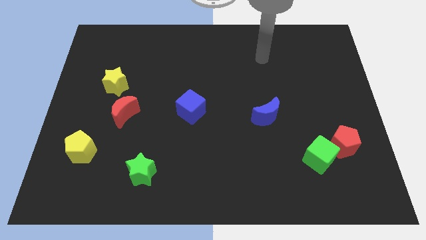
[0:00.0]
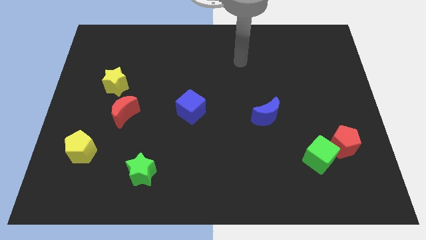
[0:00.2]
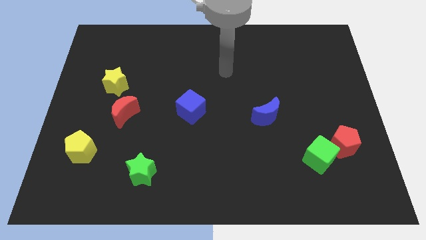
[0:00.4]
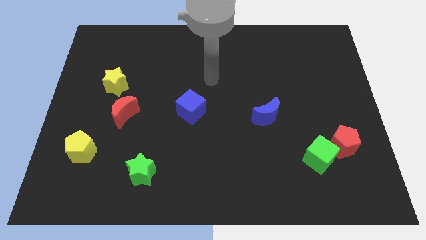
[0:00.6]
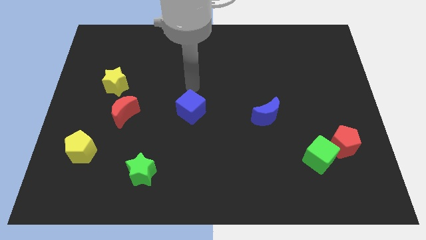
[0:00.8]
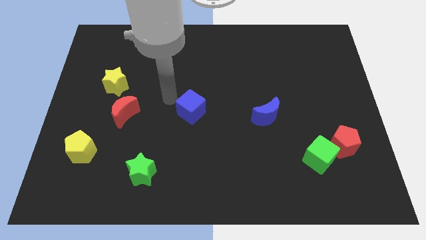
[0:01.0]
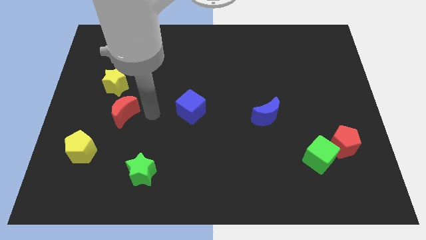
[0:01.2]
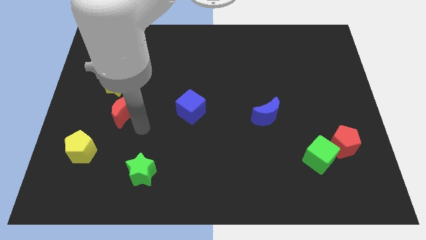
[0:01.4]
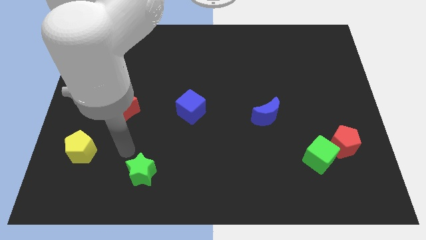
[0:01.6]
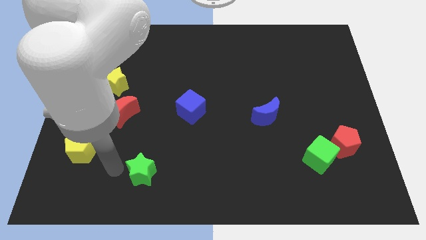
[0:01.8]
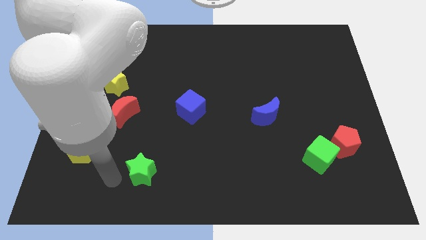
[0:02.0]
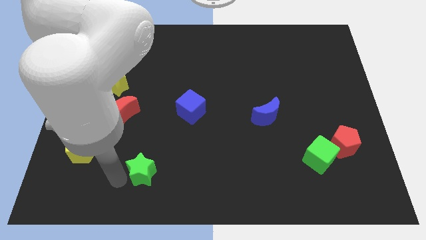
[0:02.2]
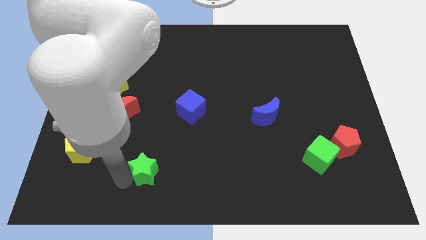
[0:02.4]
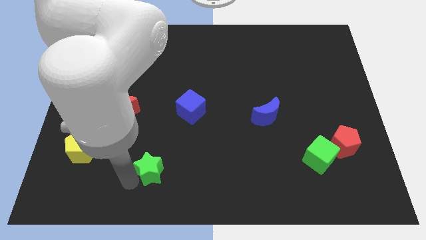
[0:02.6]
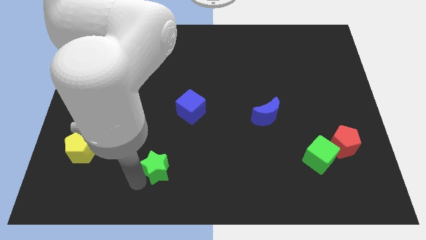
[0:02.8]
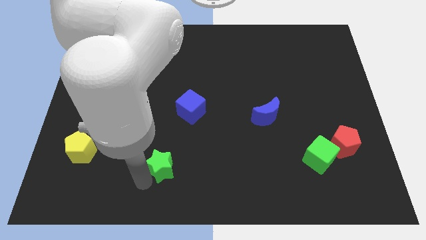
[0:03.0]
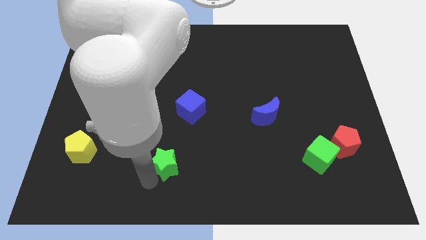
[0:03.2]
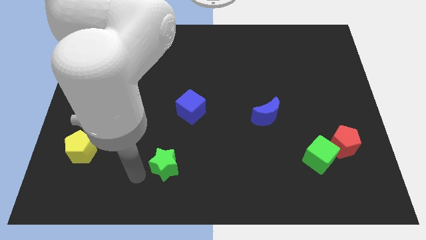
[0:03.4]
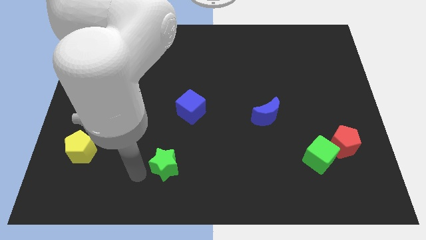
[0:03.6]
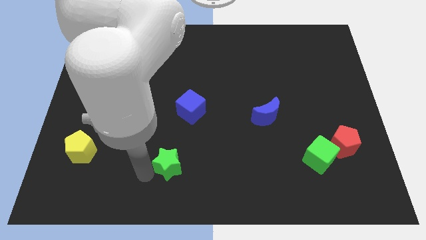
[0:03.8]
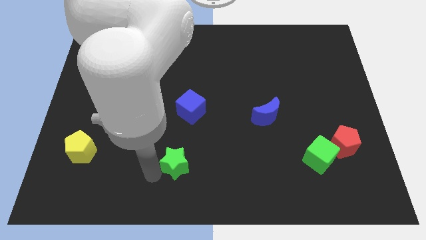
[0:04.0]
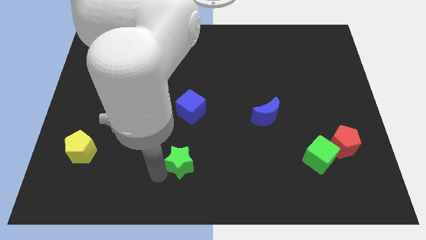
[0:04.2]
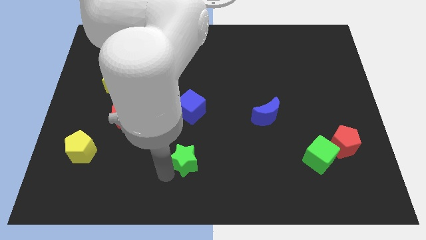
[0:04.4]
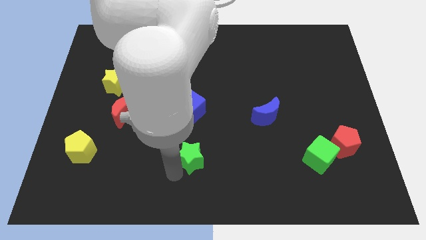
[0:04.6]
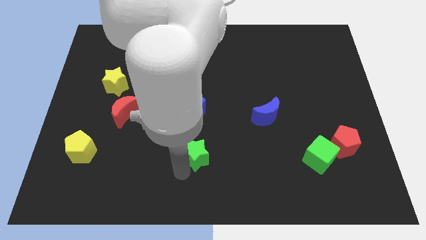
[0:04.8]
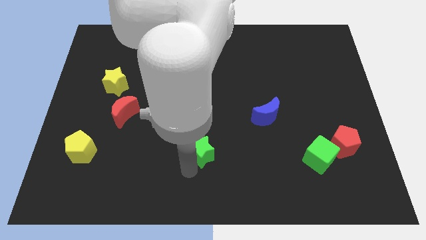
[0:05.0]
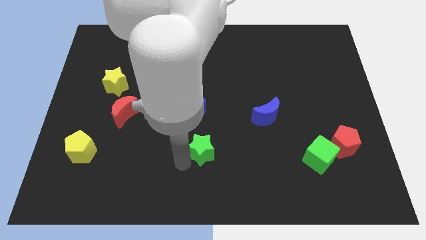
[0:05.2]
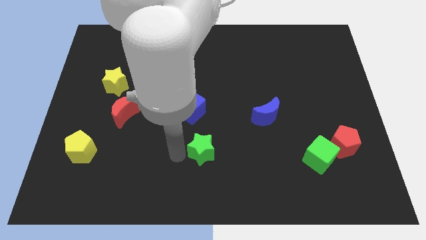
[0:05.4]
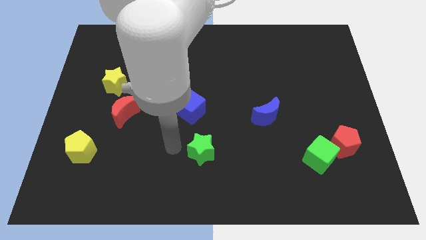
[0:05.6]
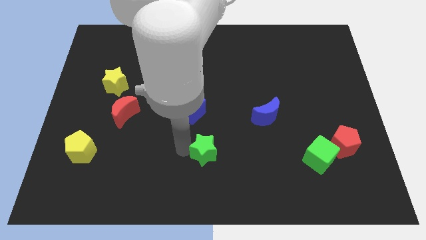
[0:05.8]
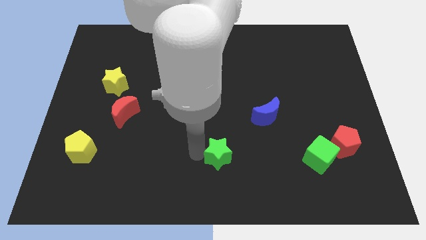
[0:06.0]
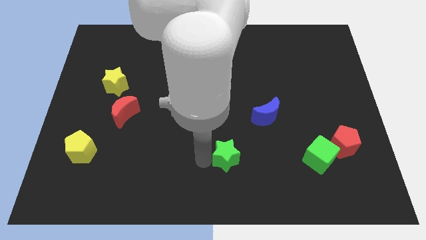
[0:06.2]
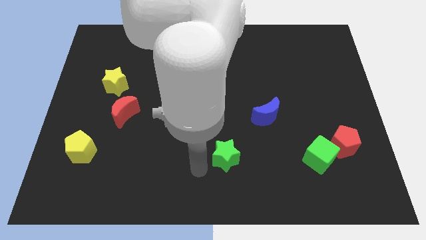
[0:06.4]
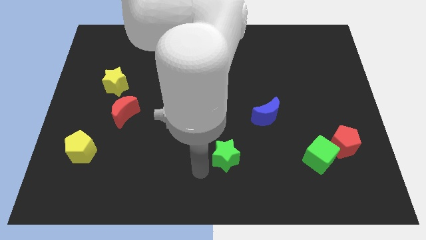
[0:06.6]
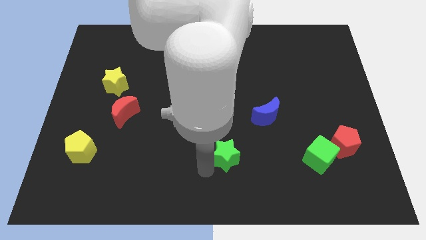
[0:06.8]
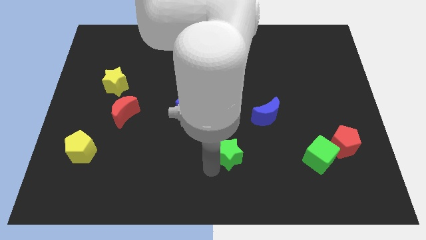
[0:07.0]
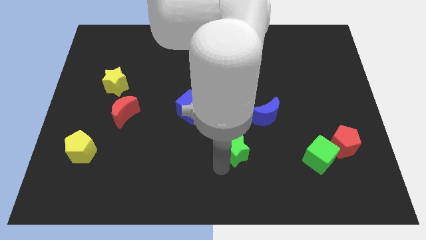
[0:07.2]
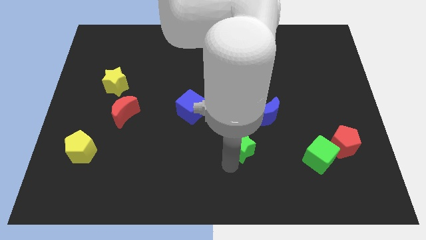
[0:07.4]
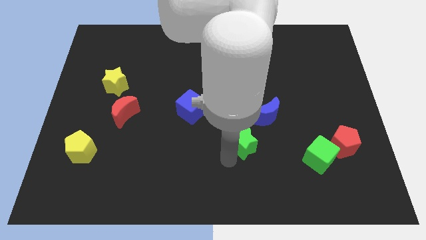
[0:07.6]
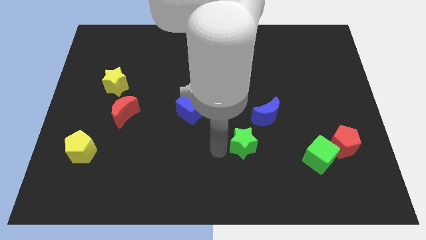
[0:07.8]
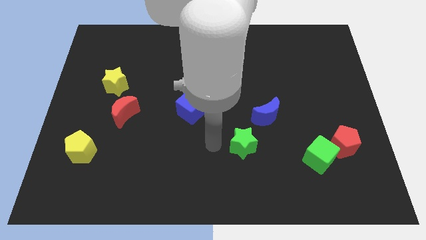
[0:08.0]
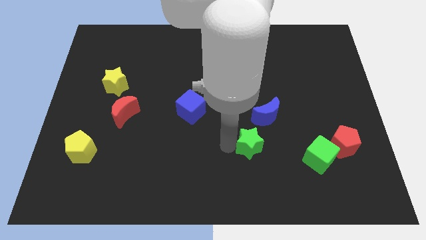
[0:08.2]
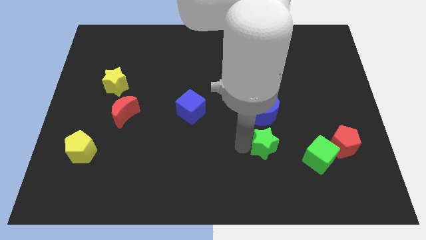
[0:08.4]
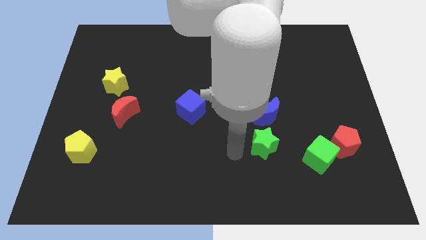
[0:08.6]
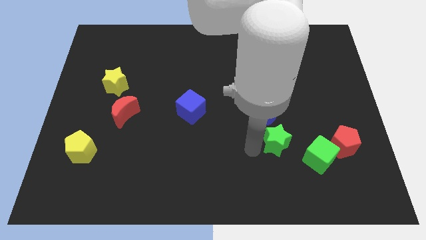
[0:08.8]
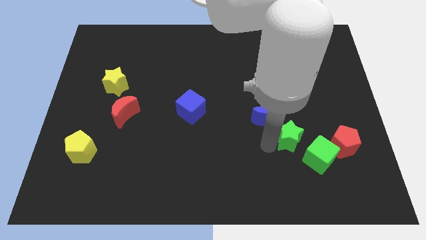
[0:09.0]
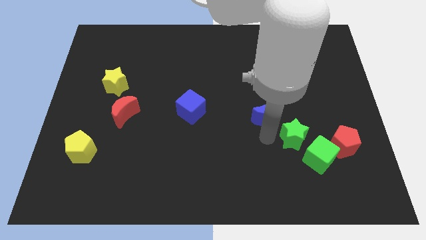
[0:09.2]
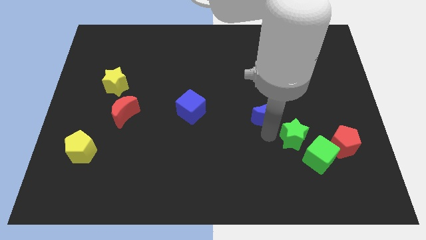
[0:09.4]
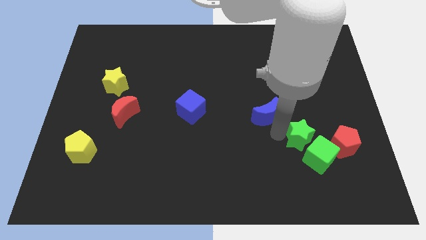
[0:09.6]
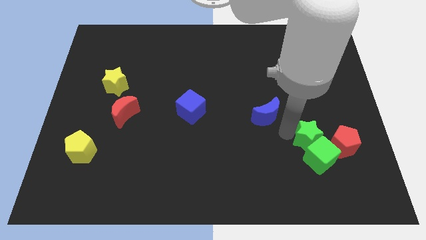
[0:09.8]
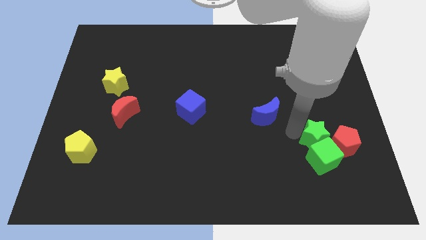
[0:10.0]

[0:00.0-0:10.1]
slide the green star to the red pentagon

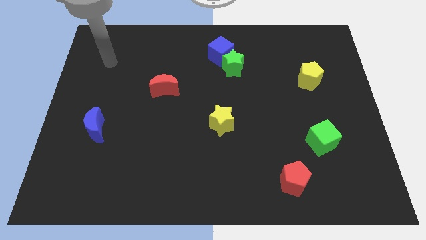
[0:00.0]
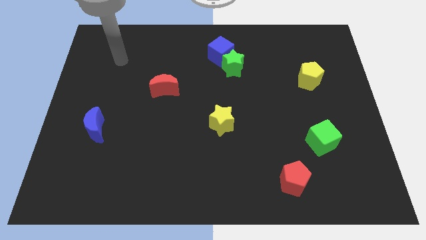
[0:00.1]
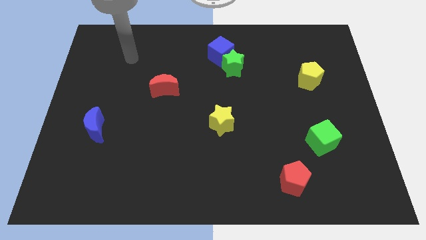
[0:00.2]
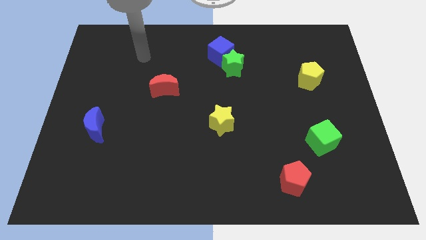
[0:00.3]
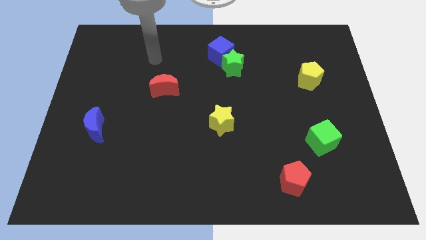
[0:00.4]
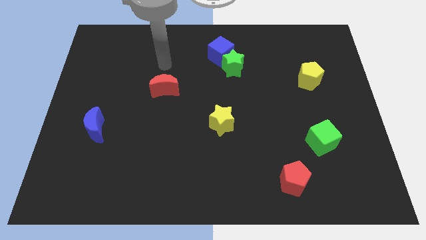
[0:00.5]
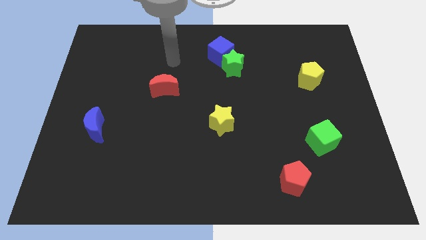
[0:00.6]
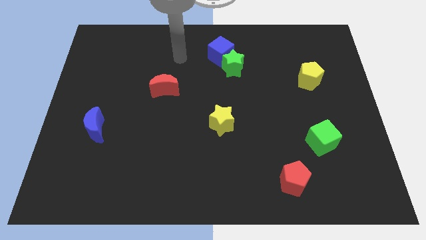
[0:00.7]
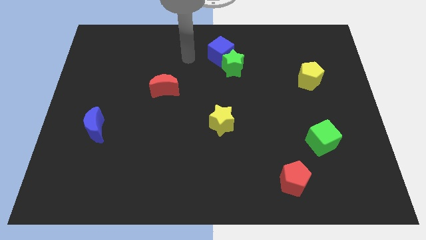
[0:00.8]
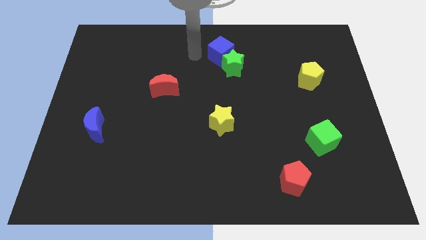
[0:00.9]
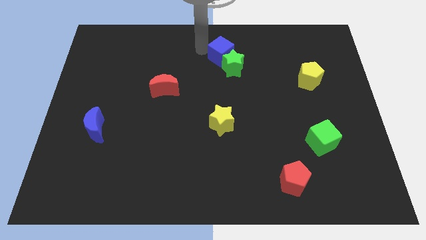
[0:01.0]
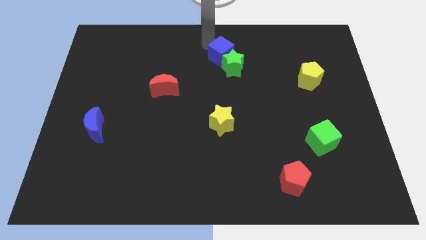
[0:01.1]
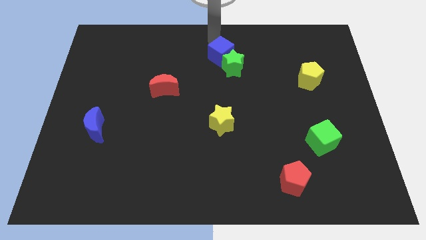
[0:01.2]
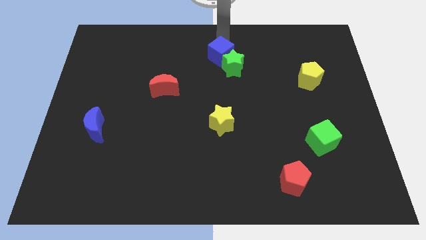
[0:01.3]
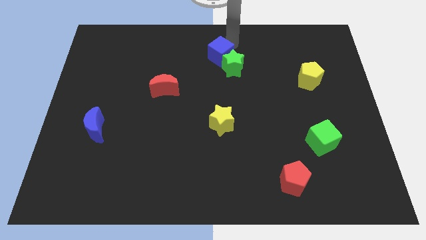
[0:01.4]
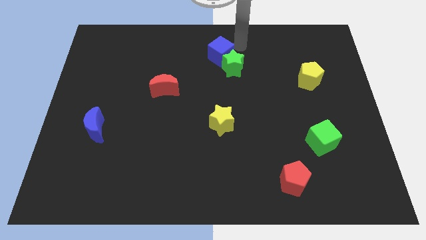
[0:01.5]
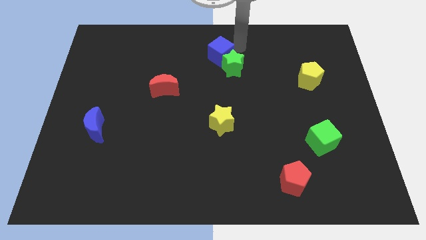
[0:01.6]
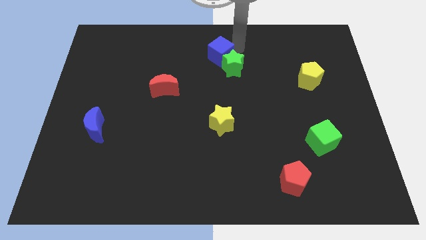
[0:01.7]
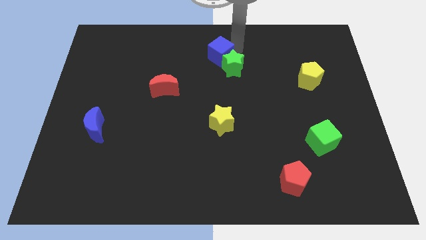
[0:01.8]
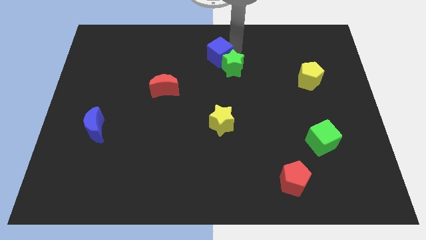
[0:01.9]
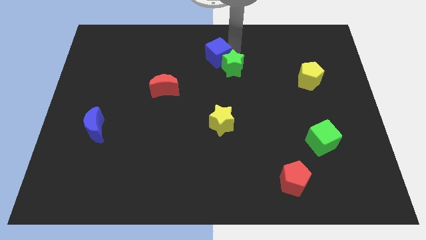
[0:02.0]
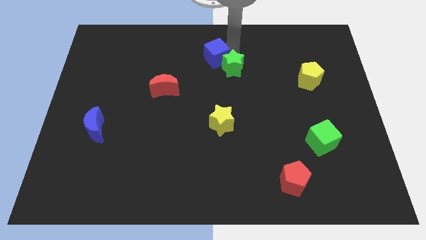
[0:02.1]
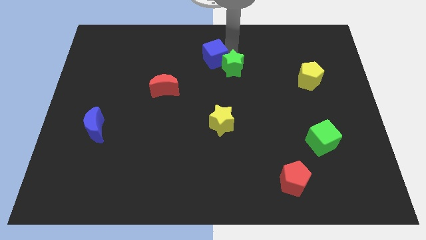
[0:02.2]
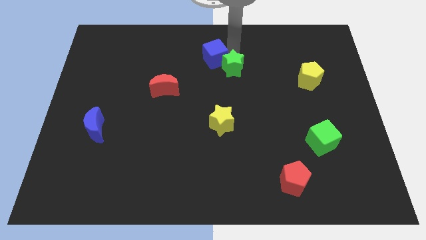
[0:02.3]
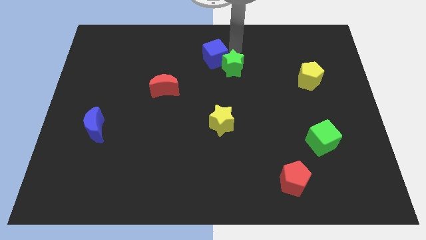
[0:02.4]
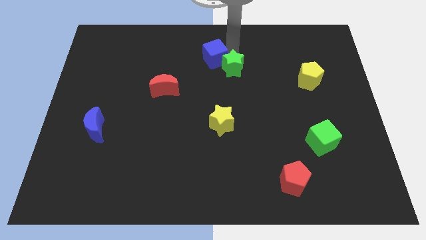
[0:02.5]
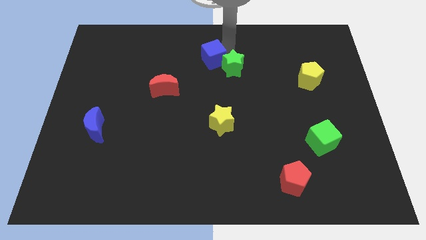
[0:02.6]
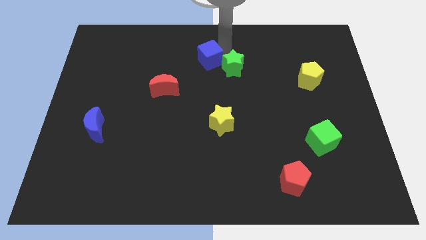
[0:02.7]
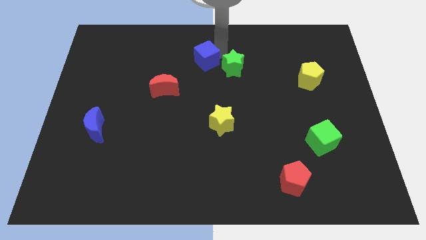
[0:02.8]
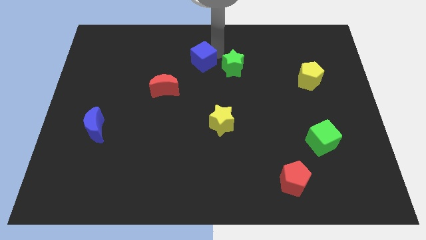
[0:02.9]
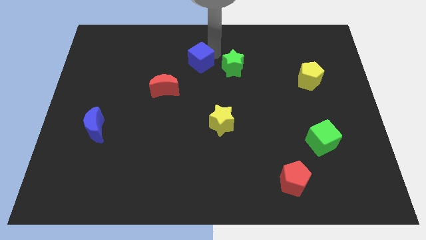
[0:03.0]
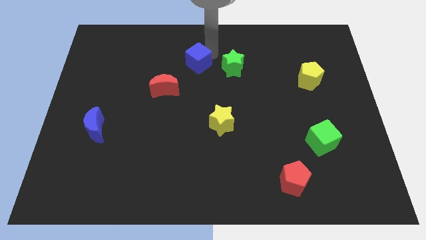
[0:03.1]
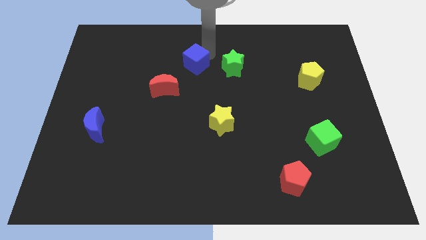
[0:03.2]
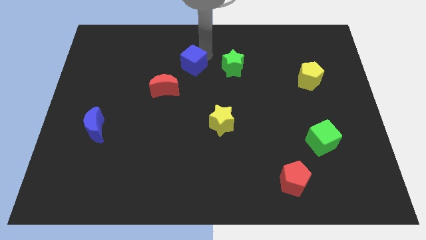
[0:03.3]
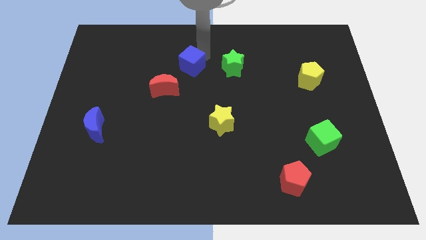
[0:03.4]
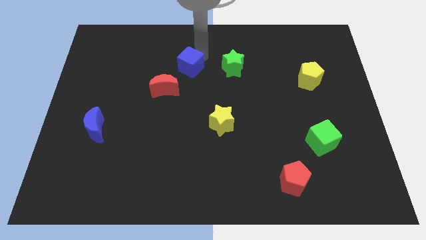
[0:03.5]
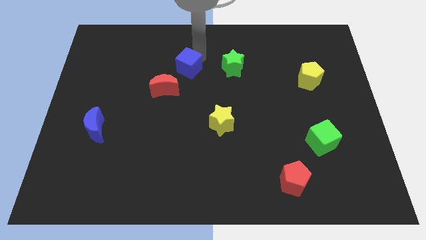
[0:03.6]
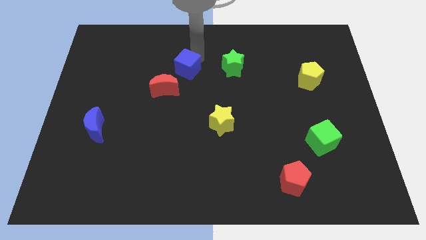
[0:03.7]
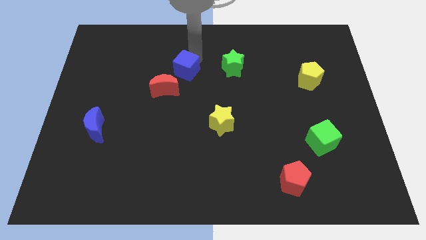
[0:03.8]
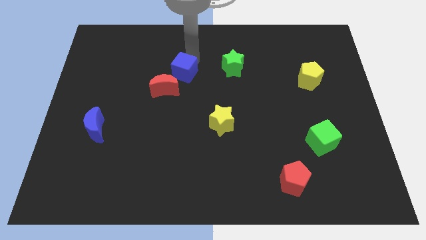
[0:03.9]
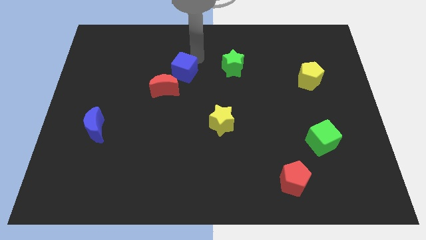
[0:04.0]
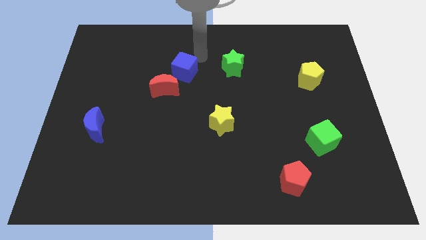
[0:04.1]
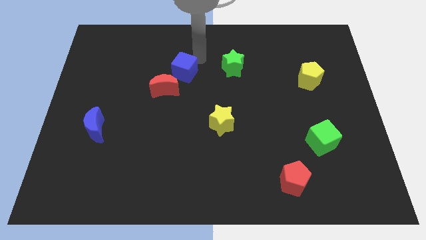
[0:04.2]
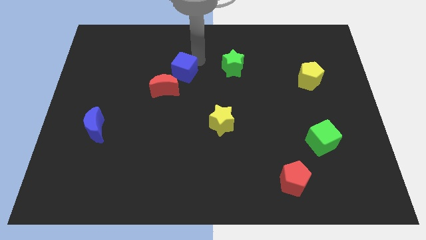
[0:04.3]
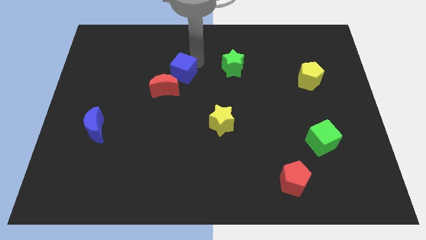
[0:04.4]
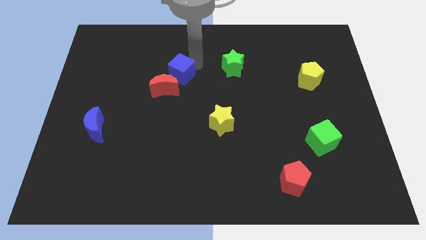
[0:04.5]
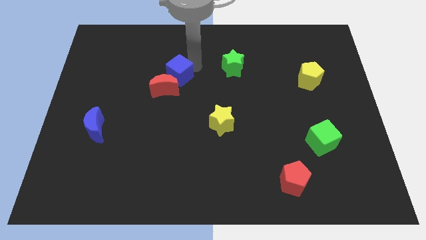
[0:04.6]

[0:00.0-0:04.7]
move the blue cube next to the red moon
